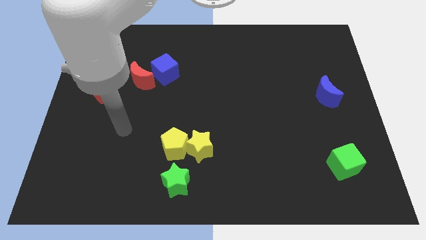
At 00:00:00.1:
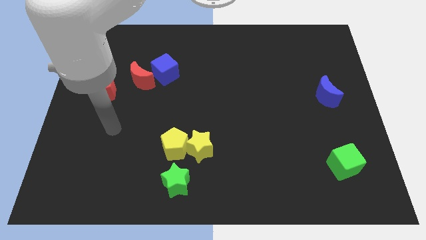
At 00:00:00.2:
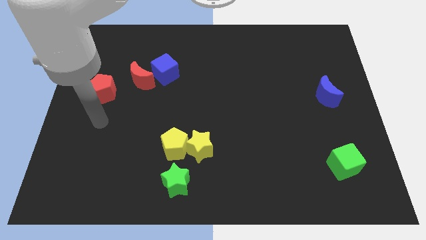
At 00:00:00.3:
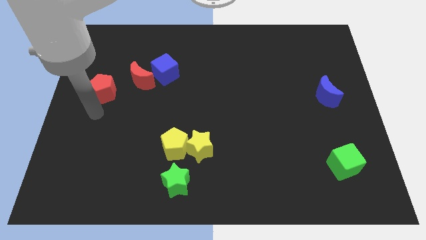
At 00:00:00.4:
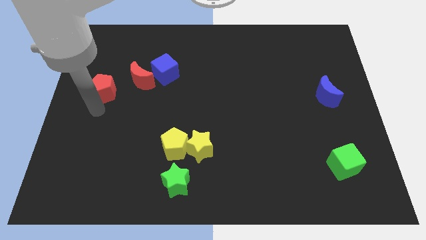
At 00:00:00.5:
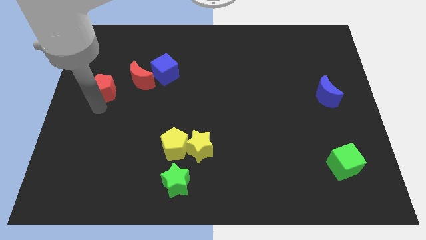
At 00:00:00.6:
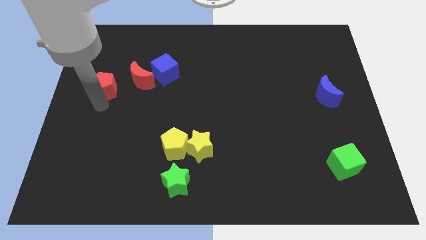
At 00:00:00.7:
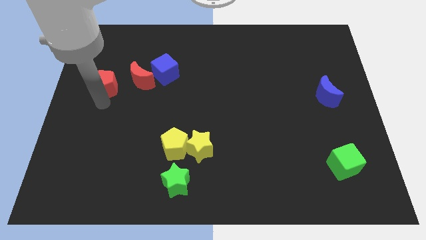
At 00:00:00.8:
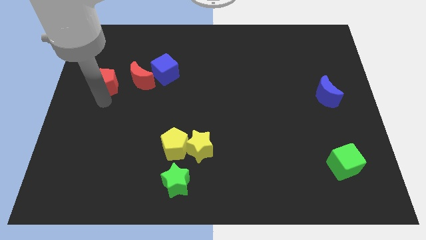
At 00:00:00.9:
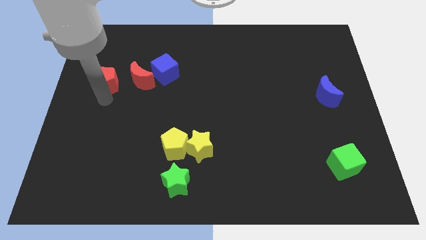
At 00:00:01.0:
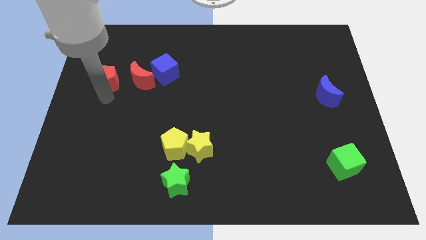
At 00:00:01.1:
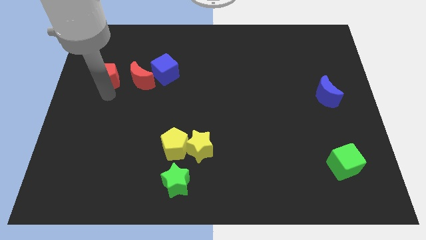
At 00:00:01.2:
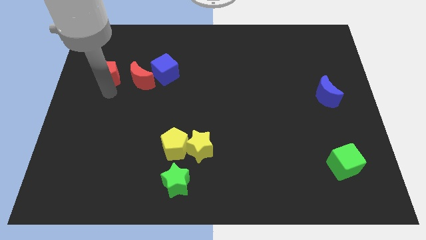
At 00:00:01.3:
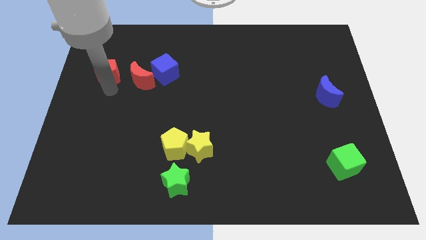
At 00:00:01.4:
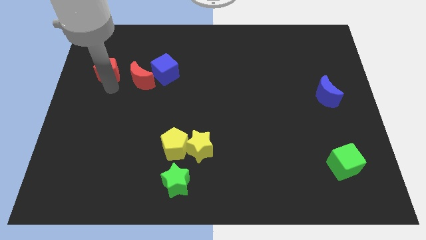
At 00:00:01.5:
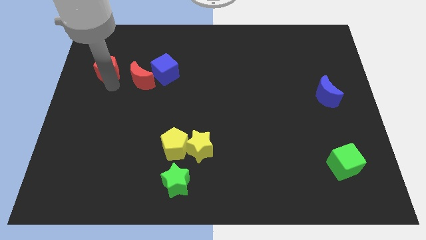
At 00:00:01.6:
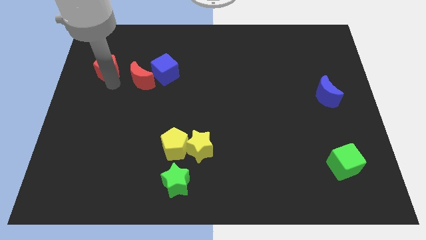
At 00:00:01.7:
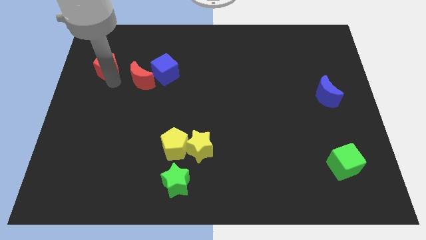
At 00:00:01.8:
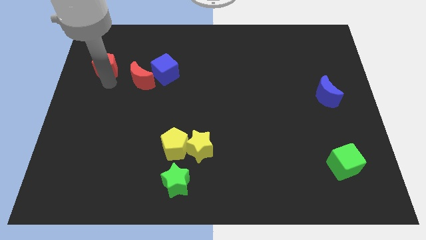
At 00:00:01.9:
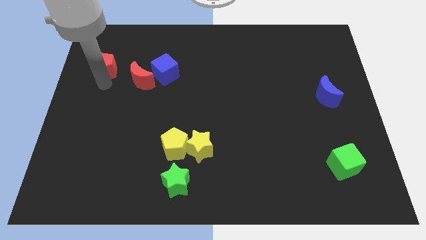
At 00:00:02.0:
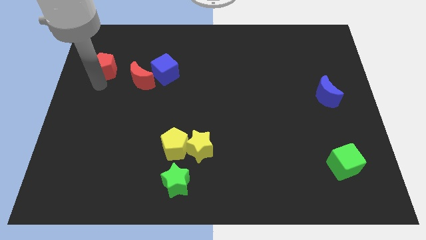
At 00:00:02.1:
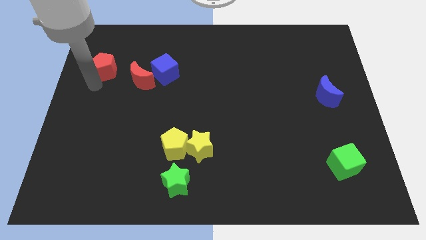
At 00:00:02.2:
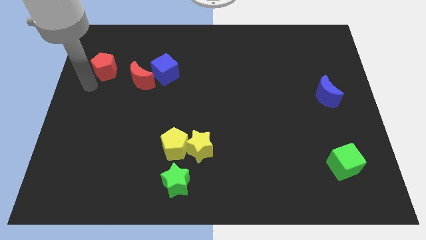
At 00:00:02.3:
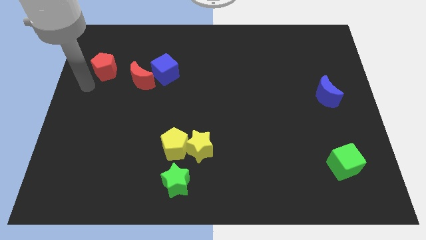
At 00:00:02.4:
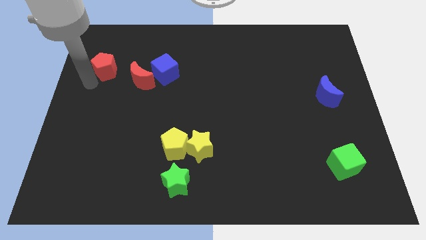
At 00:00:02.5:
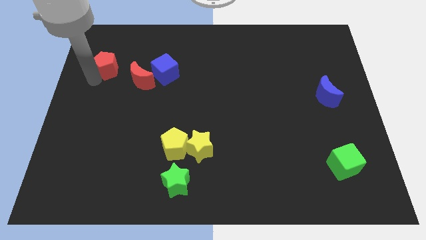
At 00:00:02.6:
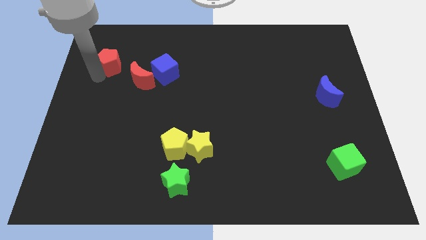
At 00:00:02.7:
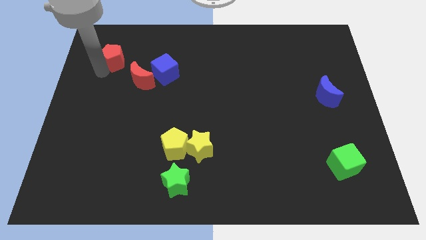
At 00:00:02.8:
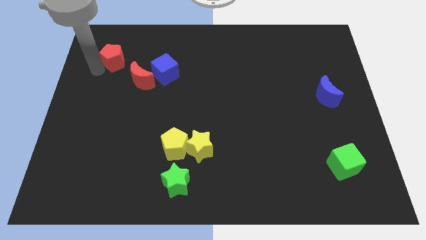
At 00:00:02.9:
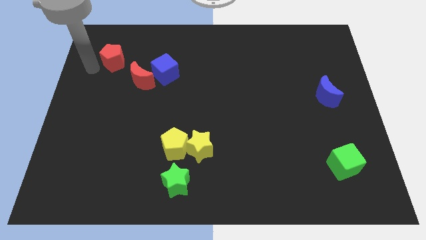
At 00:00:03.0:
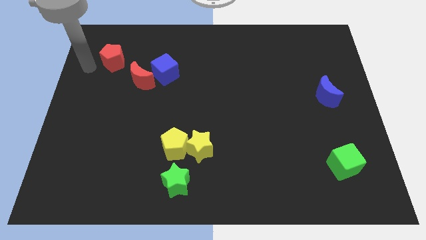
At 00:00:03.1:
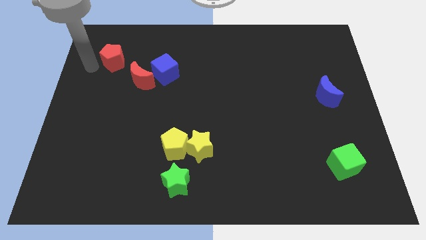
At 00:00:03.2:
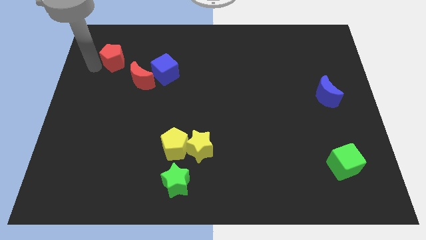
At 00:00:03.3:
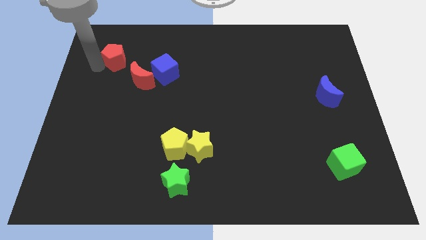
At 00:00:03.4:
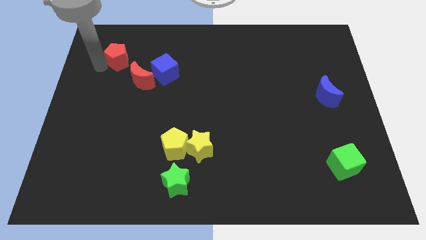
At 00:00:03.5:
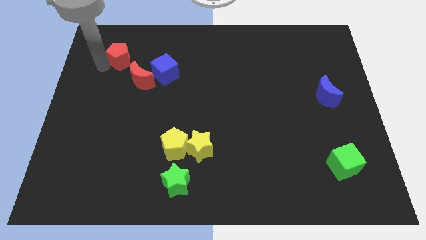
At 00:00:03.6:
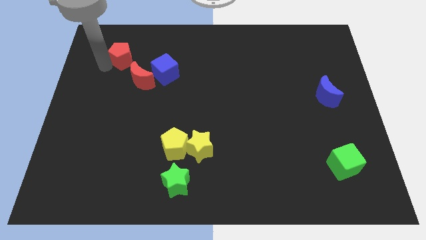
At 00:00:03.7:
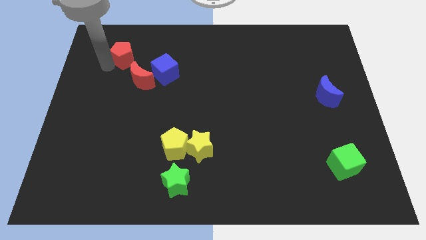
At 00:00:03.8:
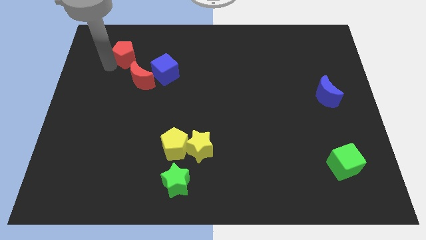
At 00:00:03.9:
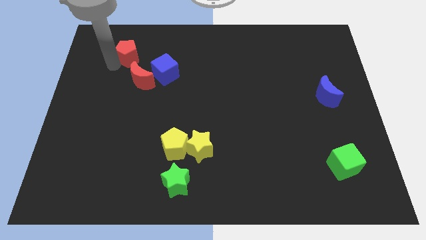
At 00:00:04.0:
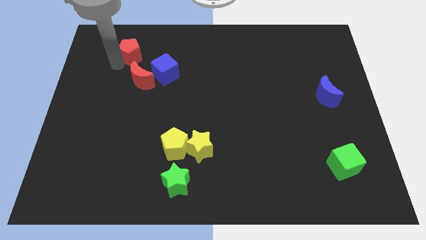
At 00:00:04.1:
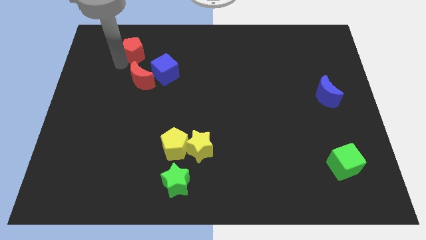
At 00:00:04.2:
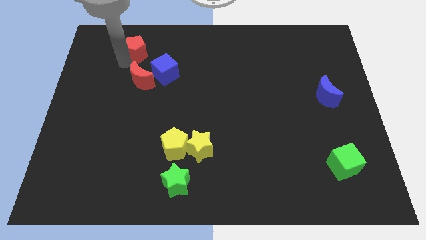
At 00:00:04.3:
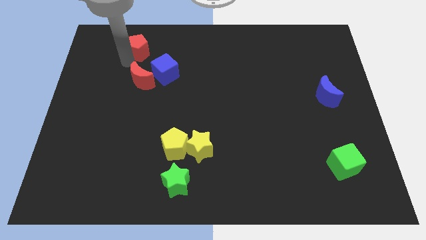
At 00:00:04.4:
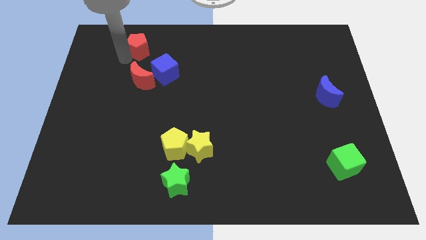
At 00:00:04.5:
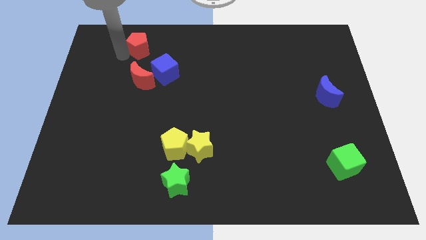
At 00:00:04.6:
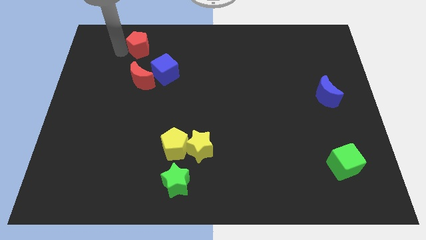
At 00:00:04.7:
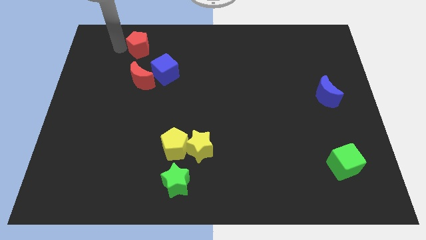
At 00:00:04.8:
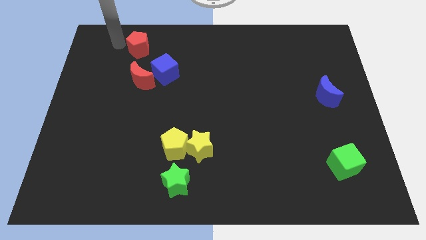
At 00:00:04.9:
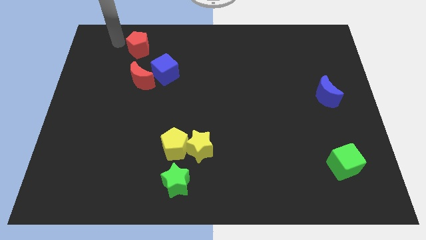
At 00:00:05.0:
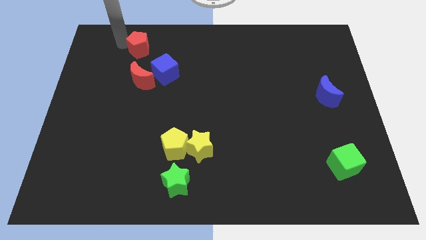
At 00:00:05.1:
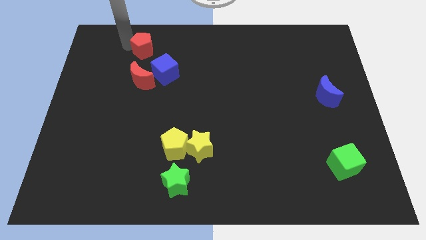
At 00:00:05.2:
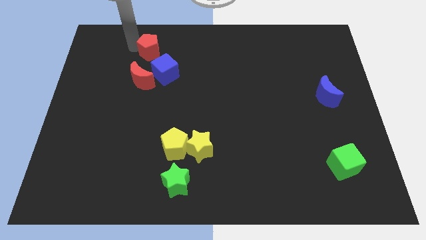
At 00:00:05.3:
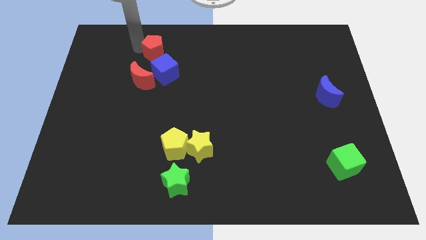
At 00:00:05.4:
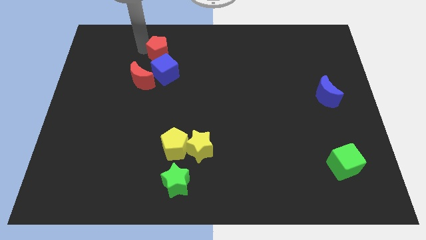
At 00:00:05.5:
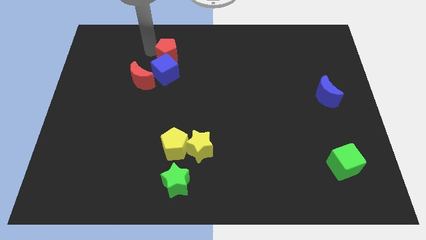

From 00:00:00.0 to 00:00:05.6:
push the red pentagon diagonally up and to the right of the blue cube

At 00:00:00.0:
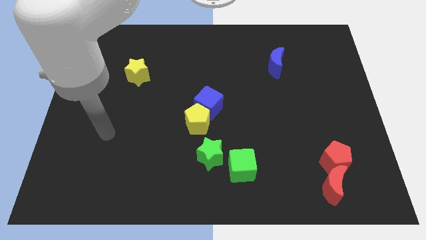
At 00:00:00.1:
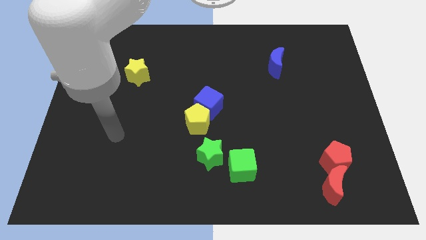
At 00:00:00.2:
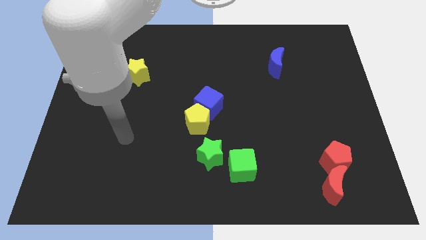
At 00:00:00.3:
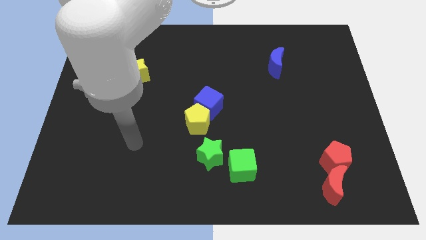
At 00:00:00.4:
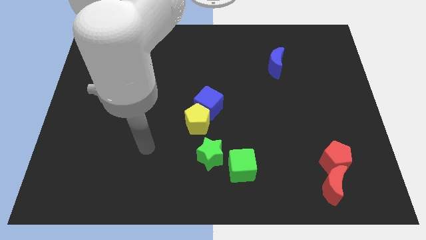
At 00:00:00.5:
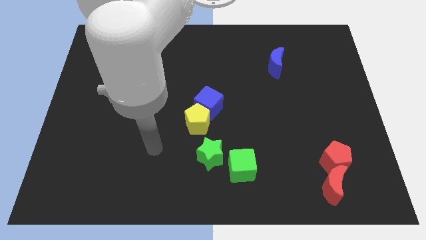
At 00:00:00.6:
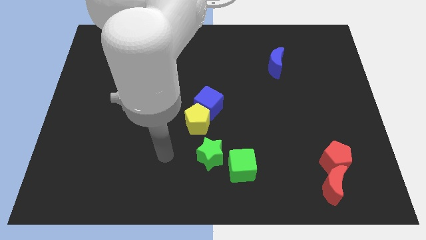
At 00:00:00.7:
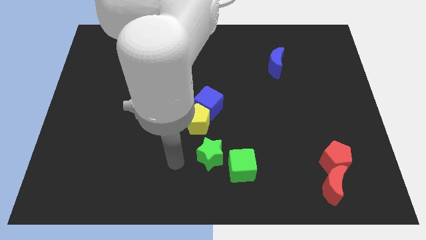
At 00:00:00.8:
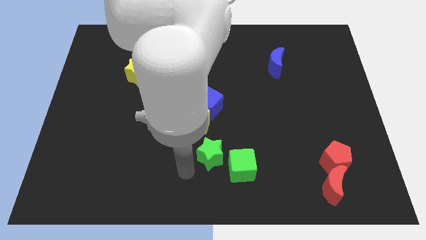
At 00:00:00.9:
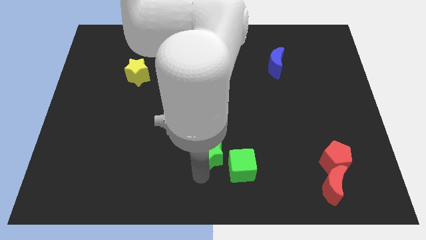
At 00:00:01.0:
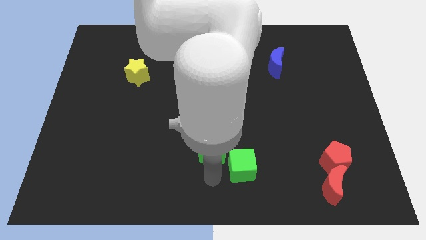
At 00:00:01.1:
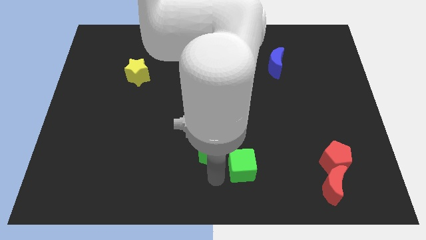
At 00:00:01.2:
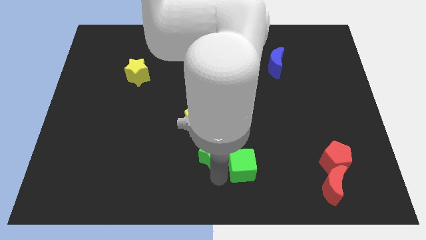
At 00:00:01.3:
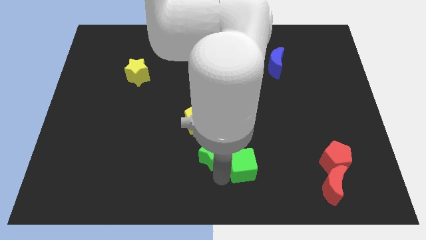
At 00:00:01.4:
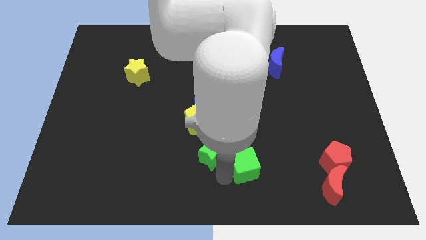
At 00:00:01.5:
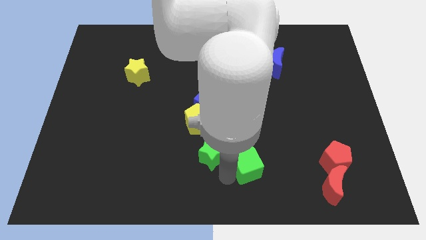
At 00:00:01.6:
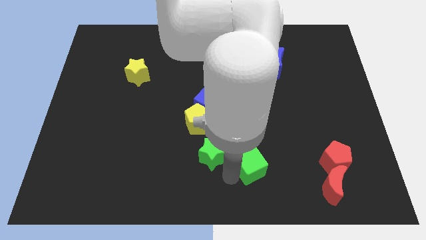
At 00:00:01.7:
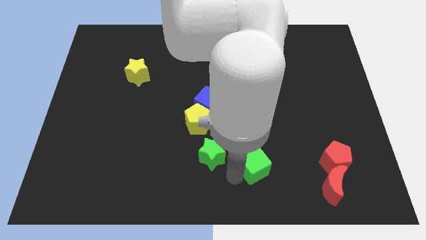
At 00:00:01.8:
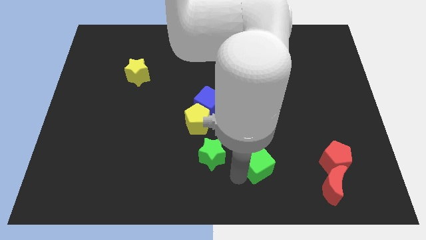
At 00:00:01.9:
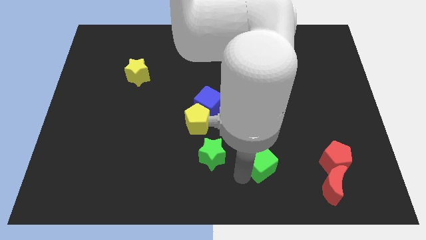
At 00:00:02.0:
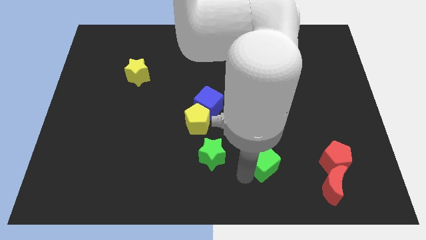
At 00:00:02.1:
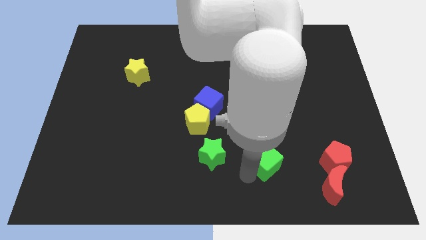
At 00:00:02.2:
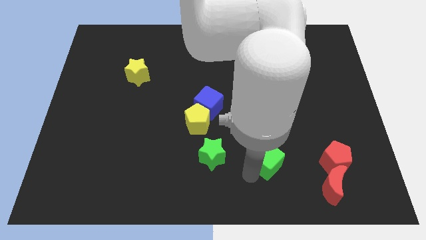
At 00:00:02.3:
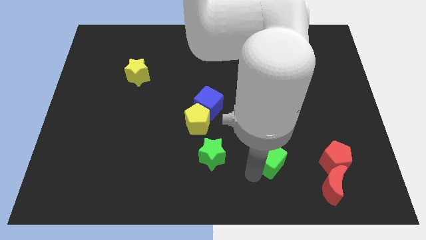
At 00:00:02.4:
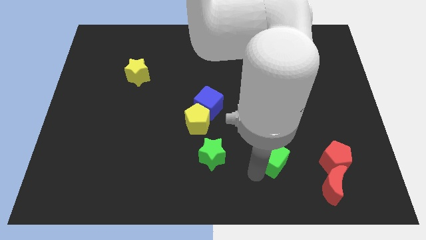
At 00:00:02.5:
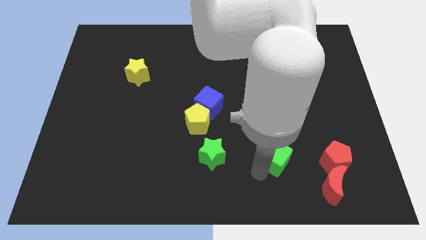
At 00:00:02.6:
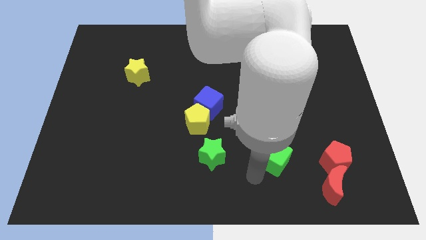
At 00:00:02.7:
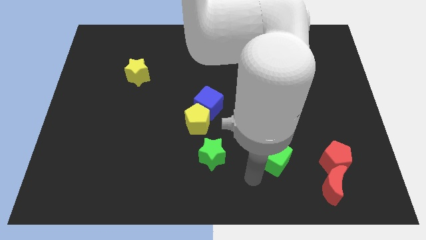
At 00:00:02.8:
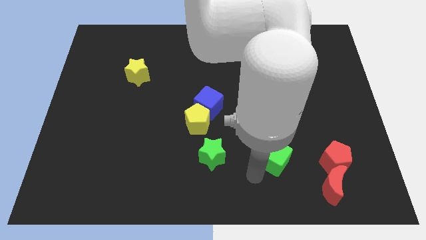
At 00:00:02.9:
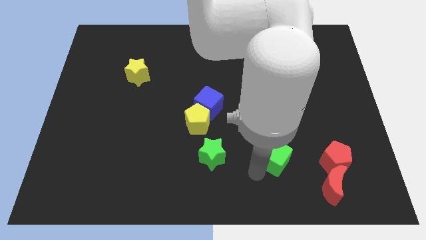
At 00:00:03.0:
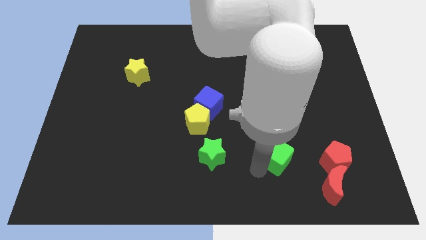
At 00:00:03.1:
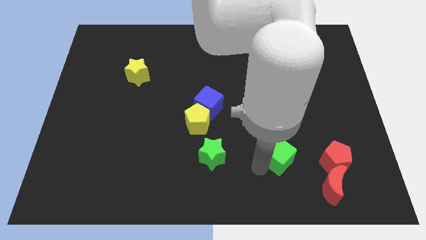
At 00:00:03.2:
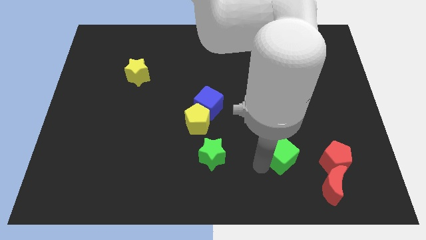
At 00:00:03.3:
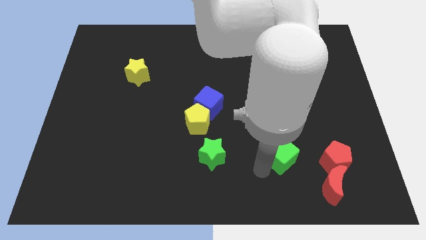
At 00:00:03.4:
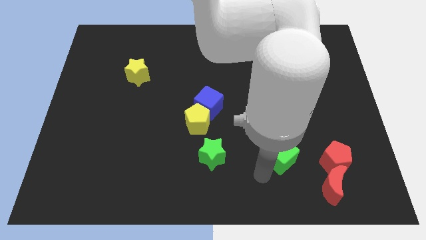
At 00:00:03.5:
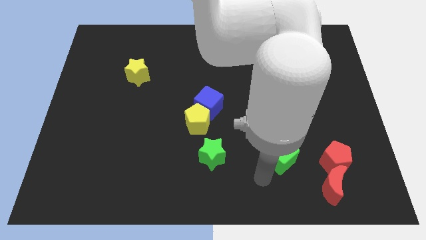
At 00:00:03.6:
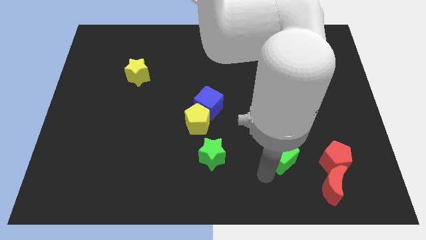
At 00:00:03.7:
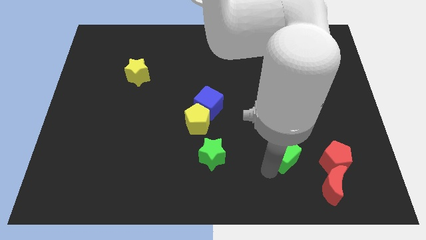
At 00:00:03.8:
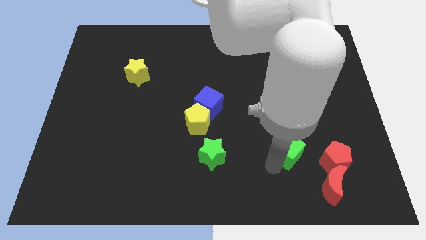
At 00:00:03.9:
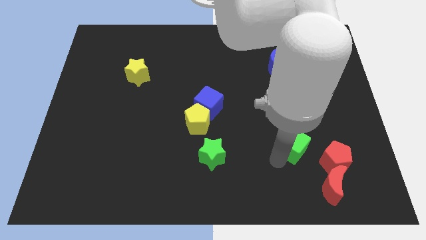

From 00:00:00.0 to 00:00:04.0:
slide the green cube to the top left side of the red pentagon
